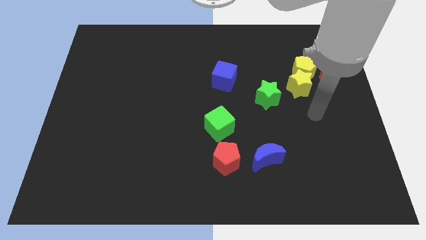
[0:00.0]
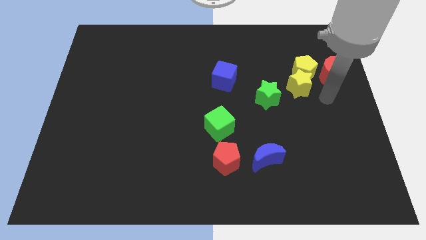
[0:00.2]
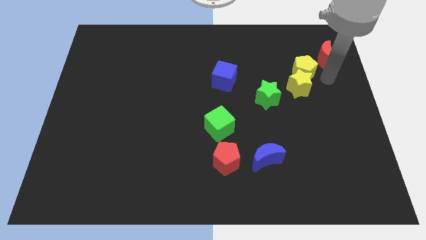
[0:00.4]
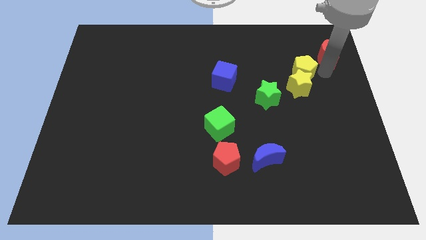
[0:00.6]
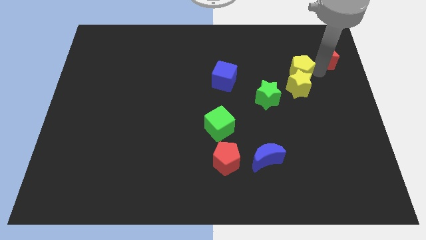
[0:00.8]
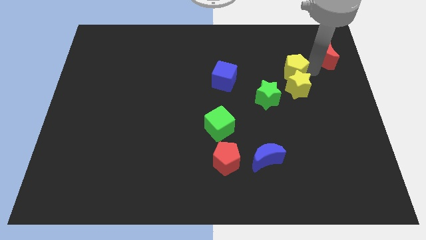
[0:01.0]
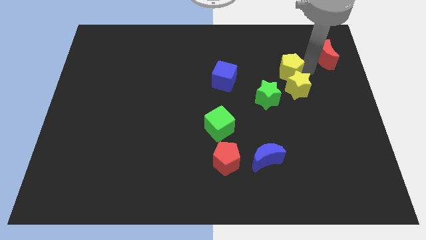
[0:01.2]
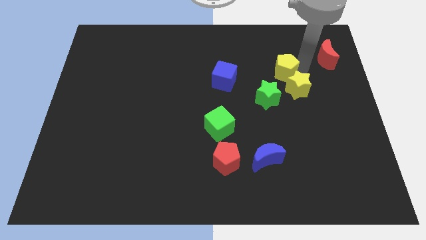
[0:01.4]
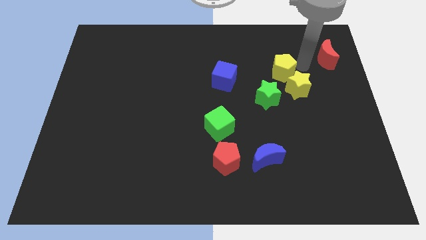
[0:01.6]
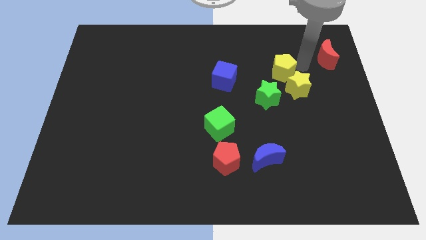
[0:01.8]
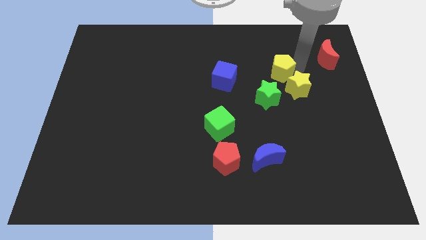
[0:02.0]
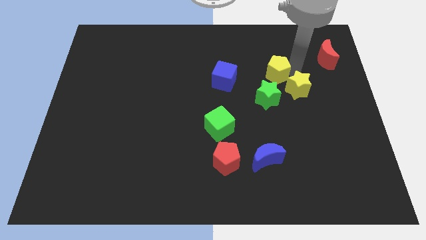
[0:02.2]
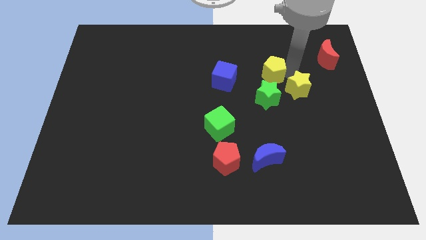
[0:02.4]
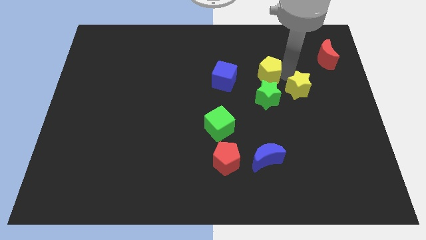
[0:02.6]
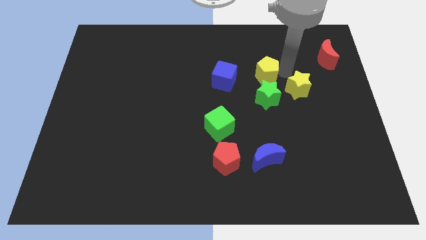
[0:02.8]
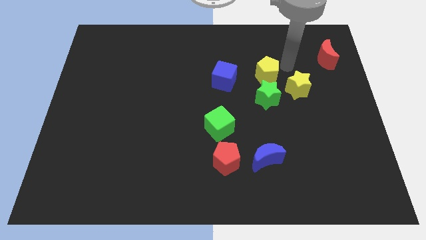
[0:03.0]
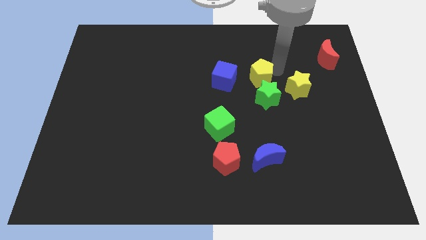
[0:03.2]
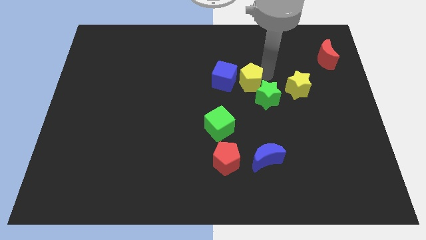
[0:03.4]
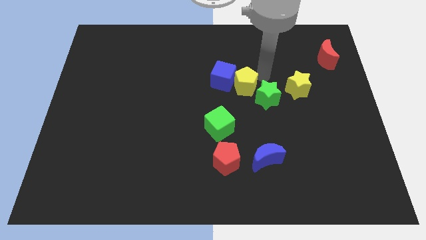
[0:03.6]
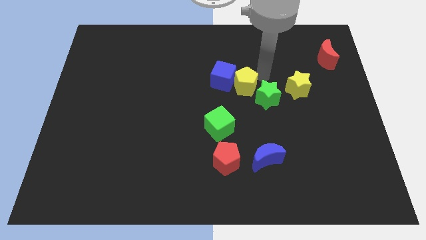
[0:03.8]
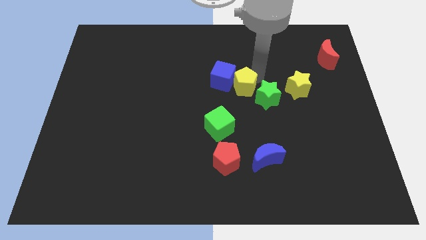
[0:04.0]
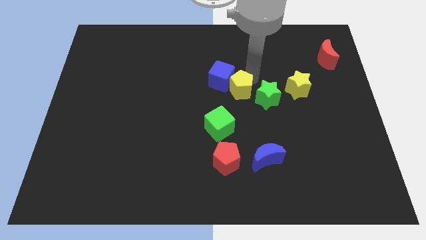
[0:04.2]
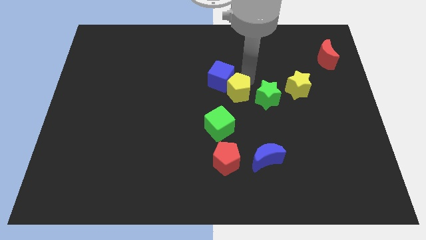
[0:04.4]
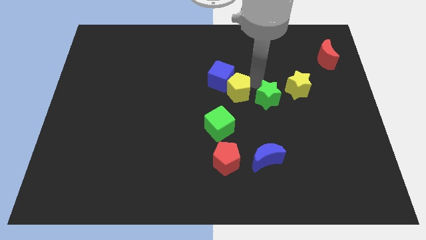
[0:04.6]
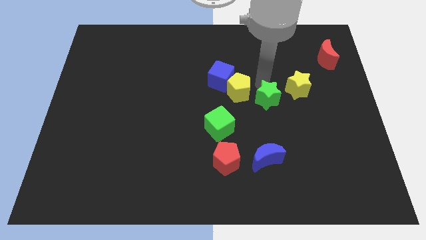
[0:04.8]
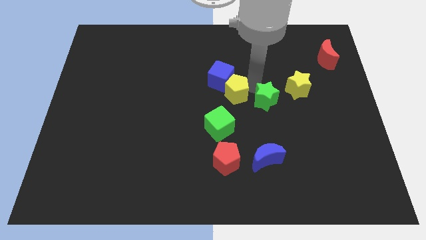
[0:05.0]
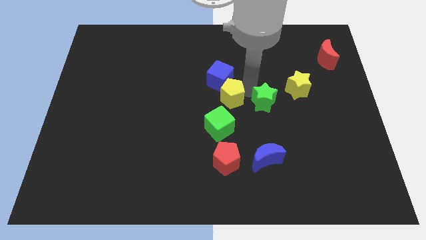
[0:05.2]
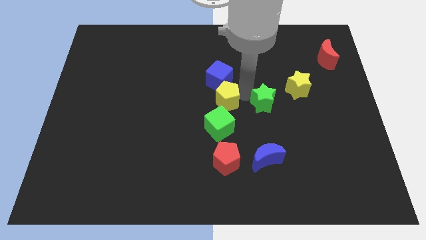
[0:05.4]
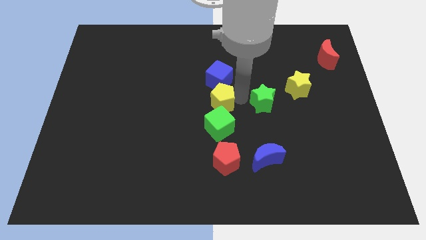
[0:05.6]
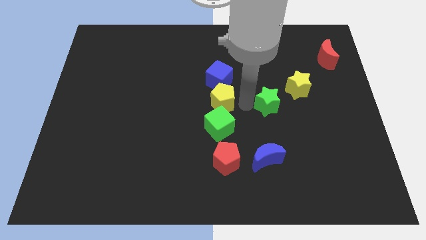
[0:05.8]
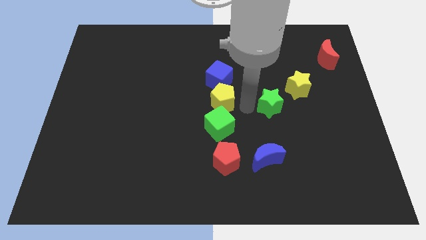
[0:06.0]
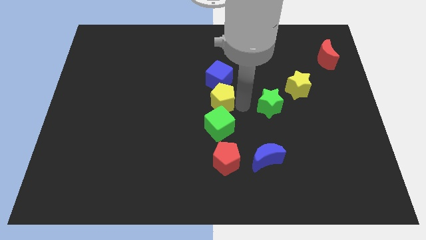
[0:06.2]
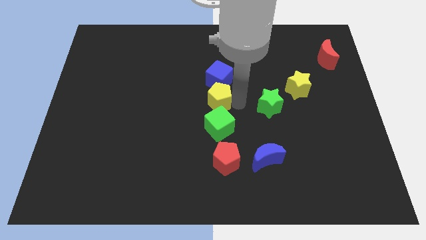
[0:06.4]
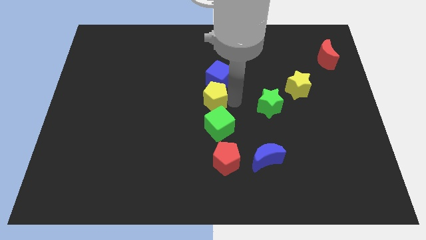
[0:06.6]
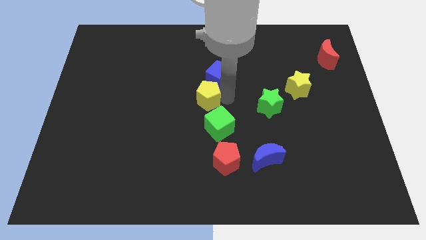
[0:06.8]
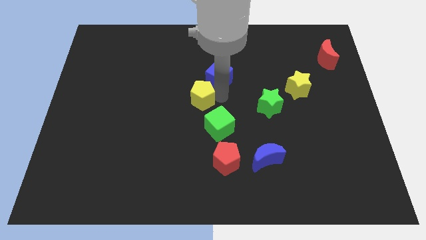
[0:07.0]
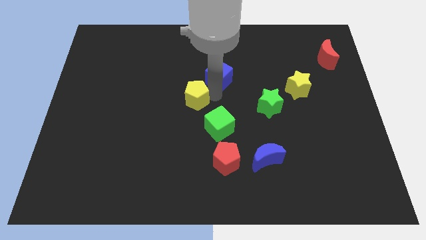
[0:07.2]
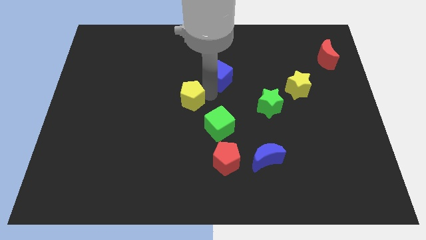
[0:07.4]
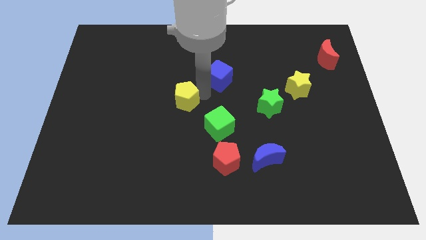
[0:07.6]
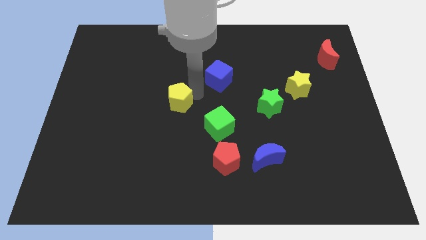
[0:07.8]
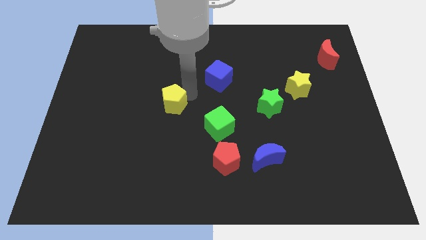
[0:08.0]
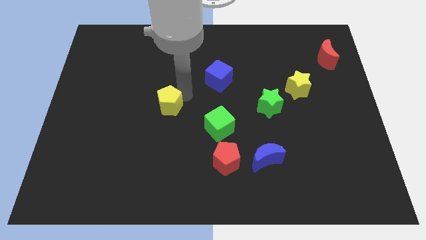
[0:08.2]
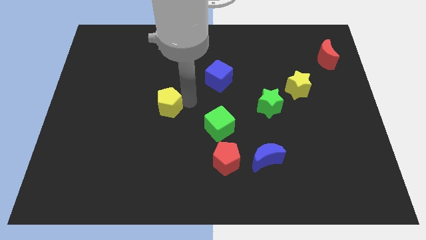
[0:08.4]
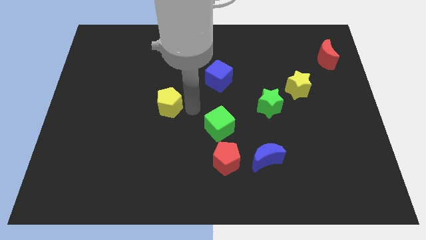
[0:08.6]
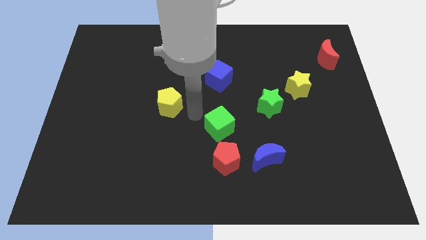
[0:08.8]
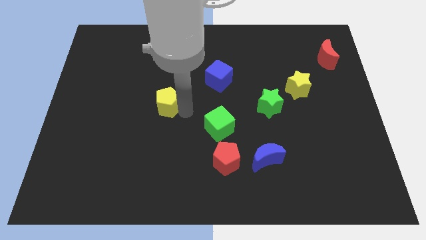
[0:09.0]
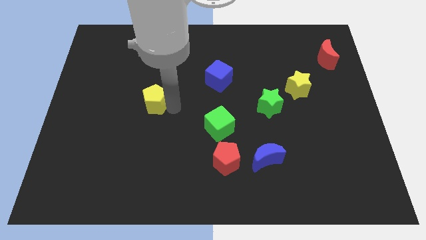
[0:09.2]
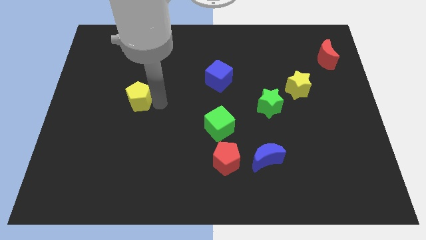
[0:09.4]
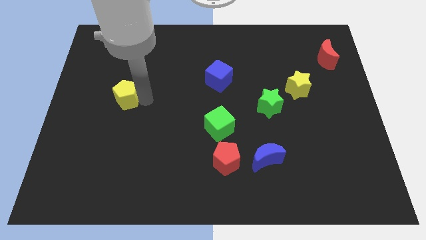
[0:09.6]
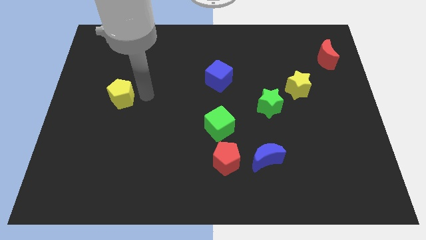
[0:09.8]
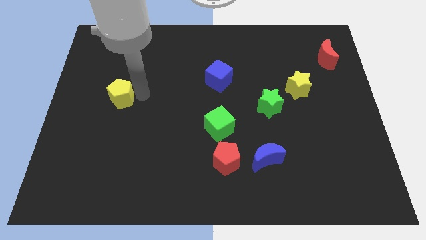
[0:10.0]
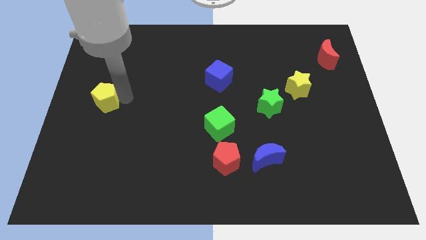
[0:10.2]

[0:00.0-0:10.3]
push the yellow pentagon to the left side of the board
